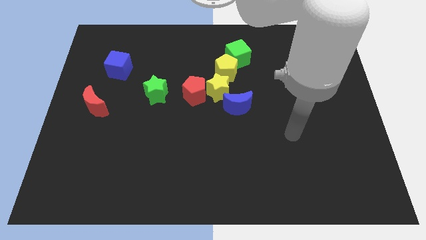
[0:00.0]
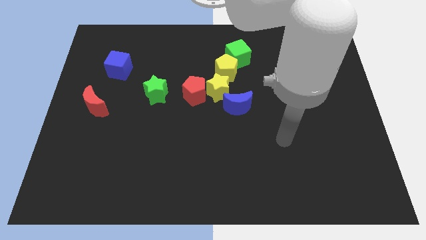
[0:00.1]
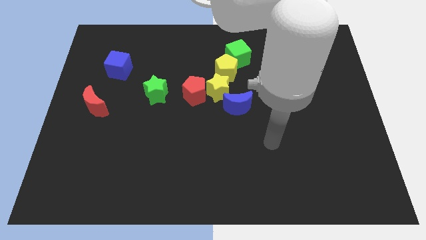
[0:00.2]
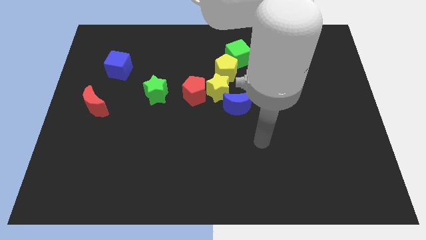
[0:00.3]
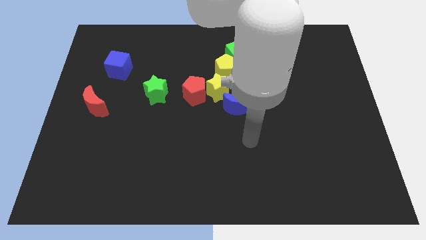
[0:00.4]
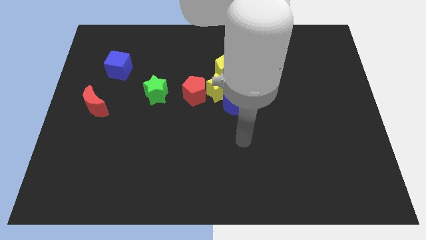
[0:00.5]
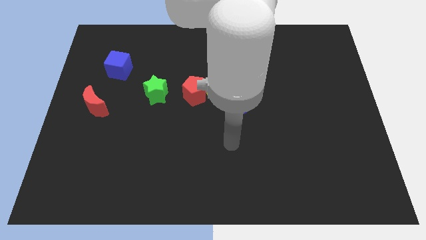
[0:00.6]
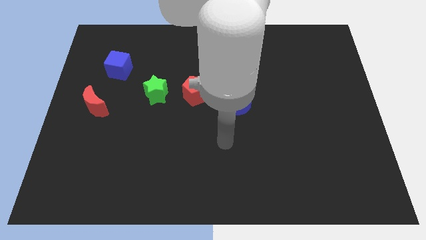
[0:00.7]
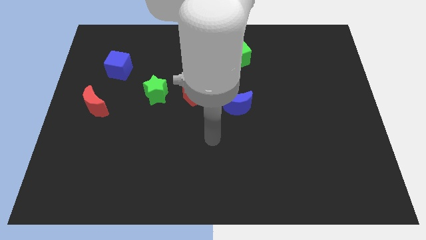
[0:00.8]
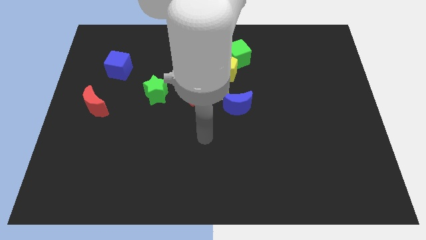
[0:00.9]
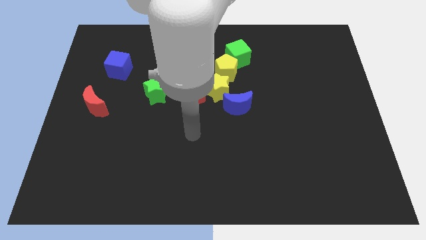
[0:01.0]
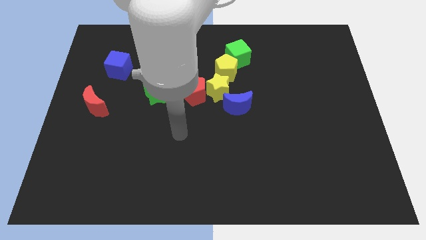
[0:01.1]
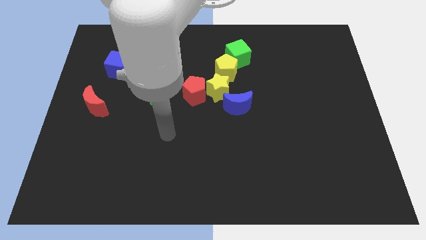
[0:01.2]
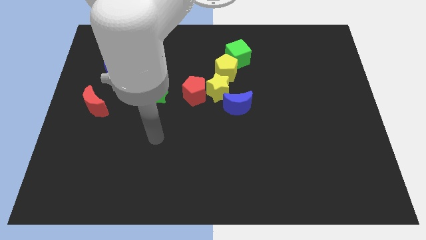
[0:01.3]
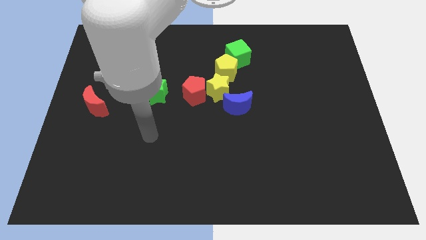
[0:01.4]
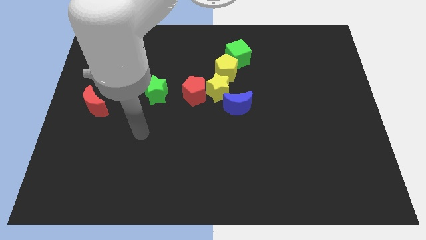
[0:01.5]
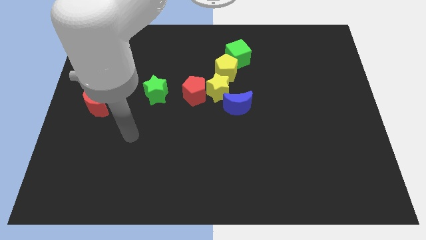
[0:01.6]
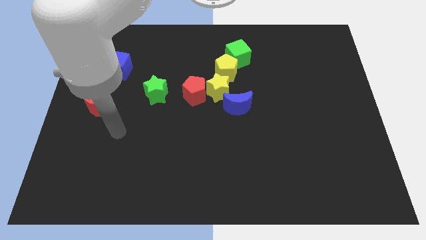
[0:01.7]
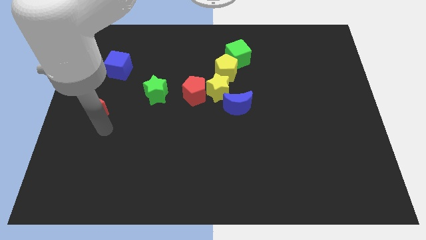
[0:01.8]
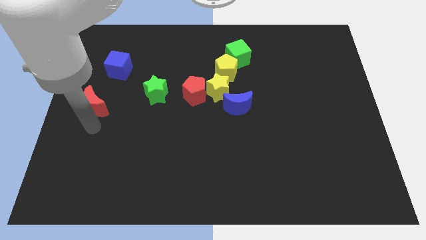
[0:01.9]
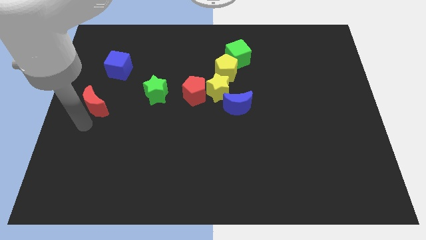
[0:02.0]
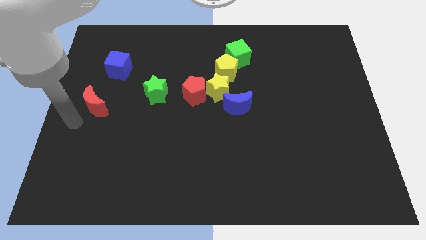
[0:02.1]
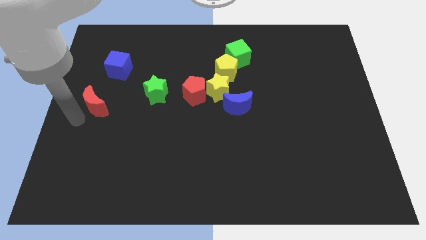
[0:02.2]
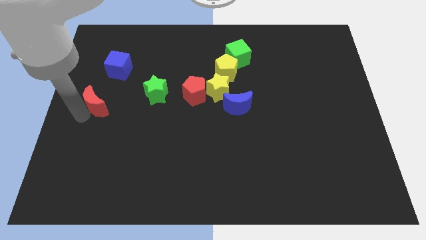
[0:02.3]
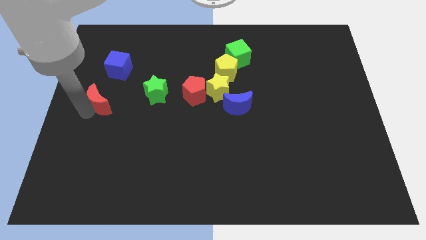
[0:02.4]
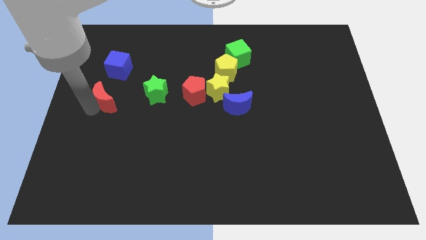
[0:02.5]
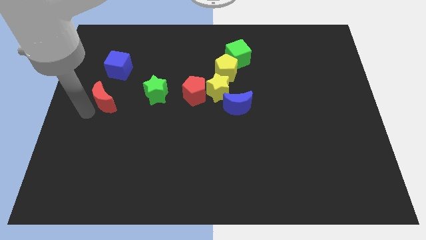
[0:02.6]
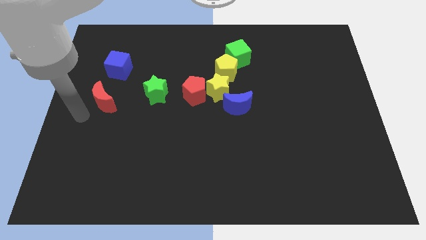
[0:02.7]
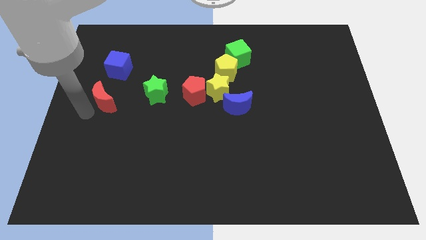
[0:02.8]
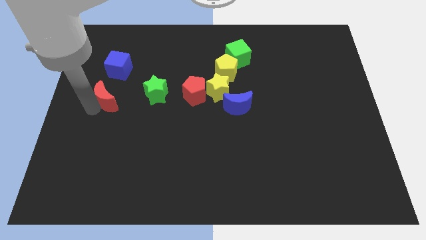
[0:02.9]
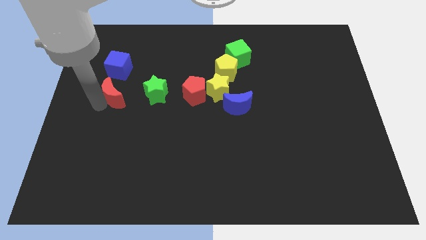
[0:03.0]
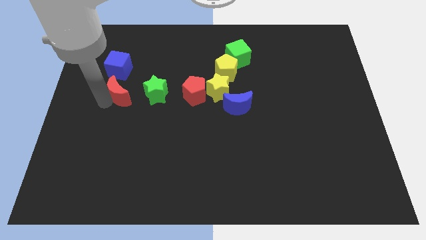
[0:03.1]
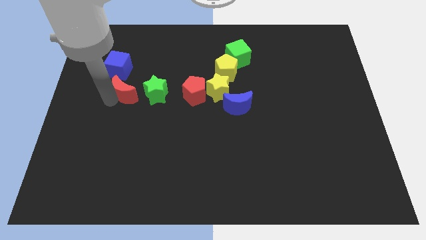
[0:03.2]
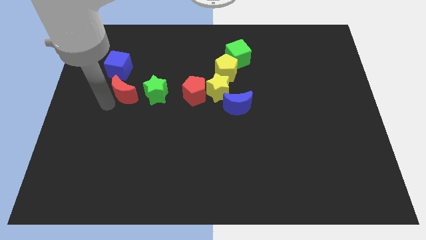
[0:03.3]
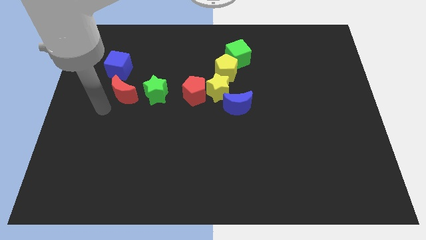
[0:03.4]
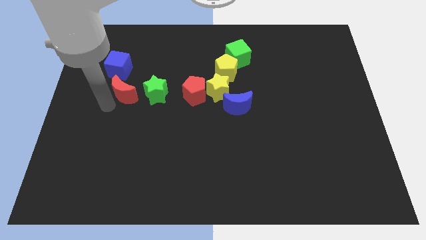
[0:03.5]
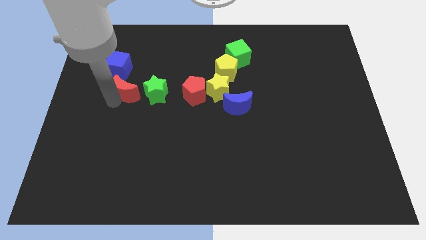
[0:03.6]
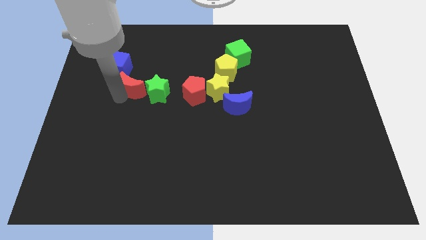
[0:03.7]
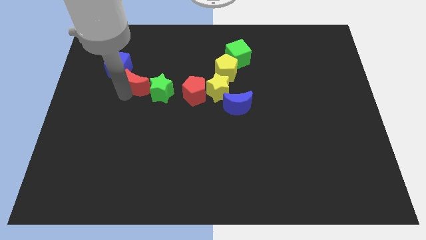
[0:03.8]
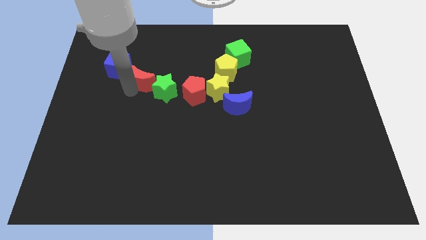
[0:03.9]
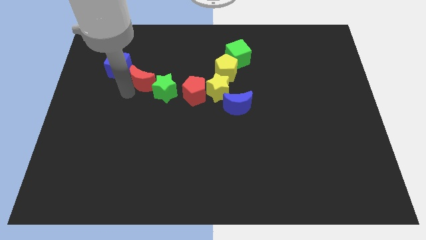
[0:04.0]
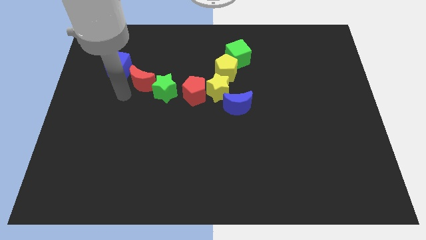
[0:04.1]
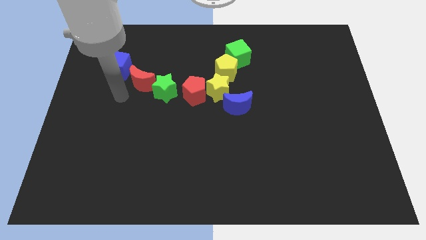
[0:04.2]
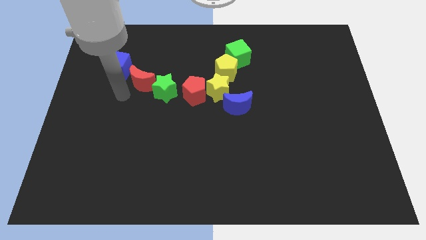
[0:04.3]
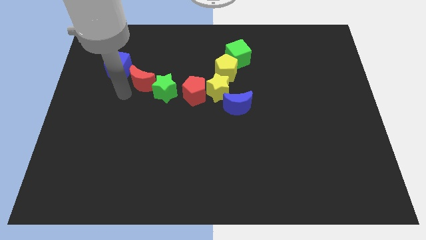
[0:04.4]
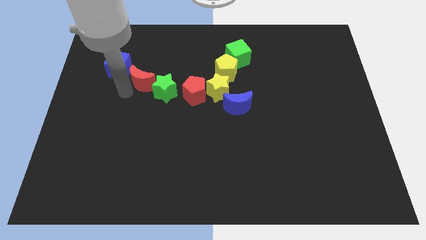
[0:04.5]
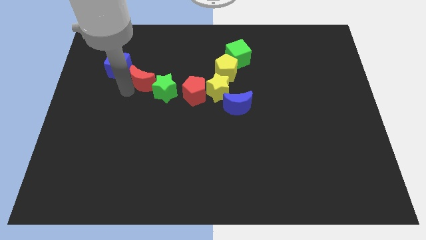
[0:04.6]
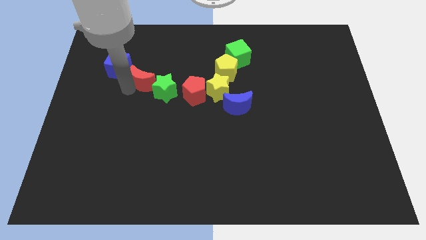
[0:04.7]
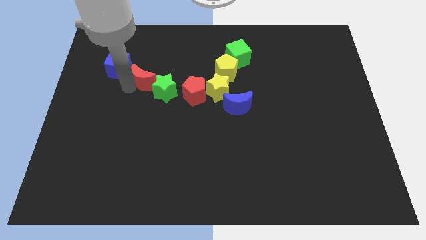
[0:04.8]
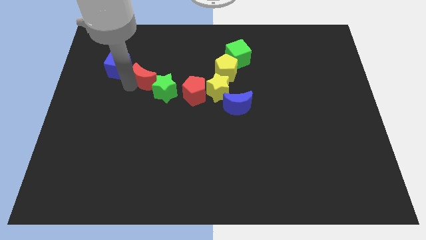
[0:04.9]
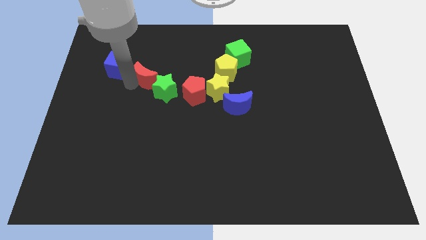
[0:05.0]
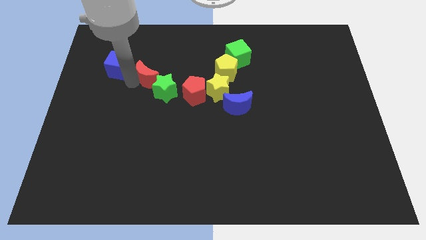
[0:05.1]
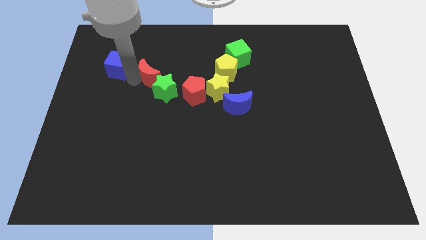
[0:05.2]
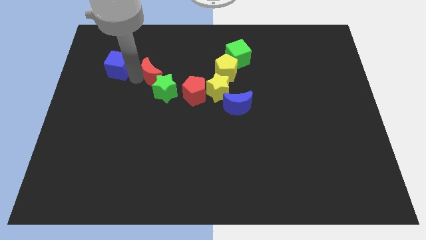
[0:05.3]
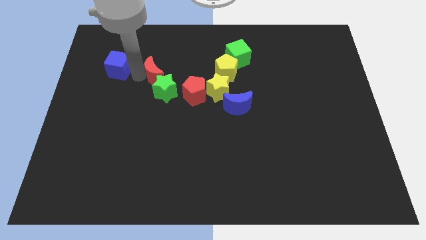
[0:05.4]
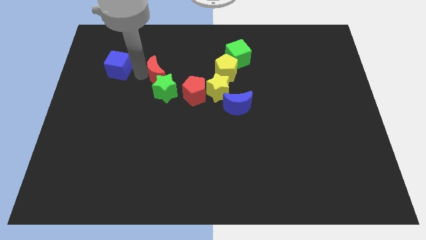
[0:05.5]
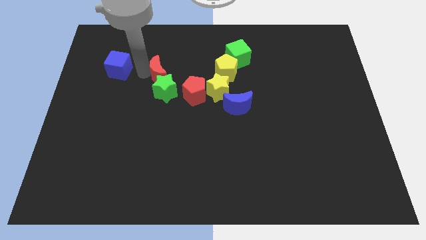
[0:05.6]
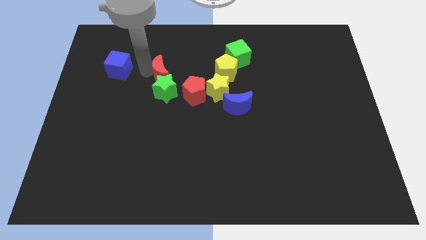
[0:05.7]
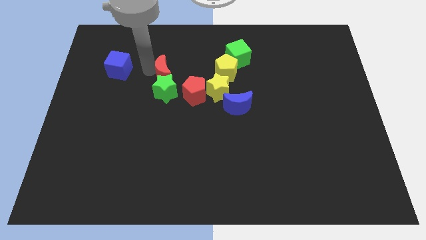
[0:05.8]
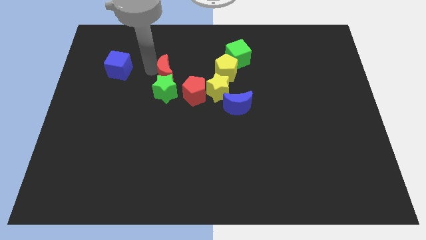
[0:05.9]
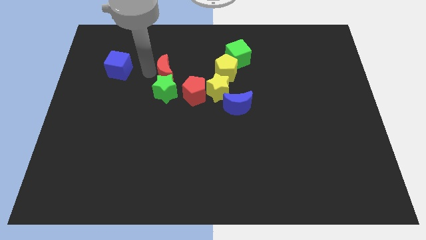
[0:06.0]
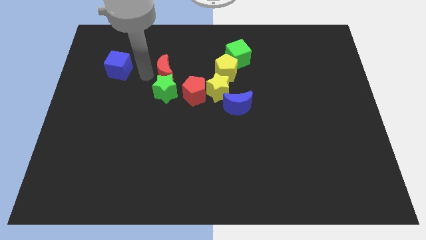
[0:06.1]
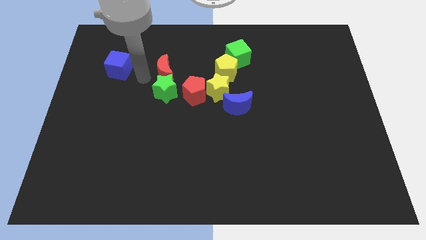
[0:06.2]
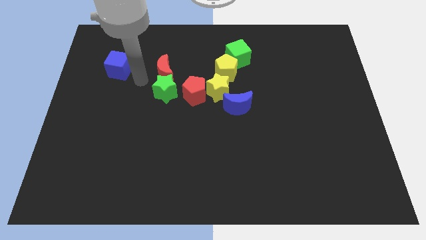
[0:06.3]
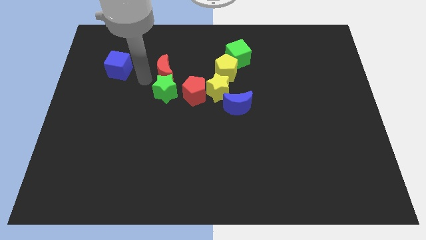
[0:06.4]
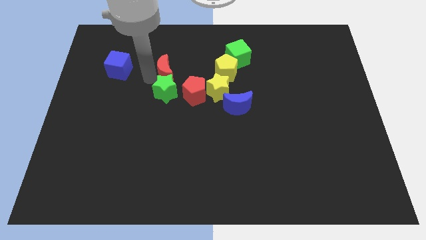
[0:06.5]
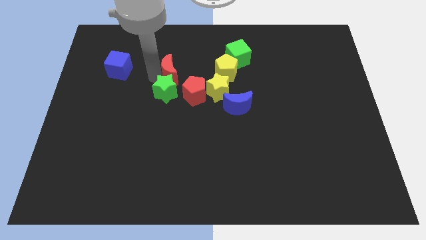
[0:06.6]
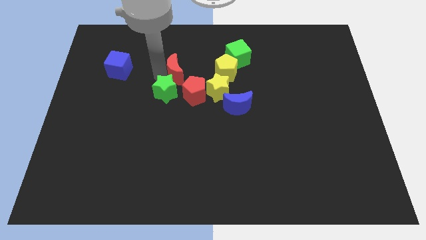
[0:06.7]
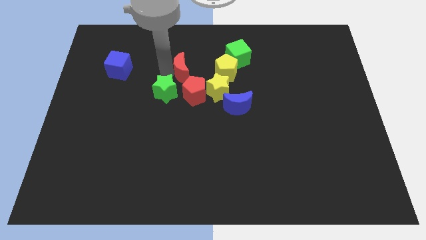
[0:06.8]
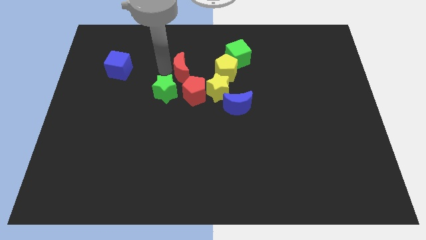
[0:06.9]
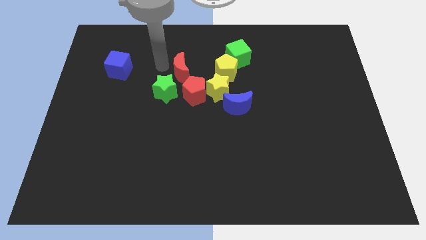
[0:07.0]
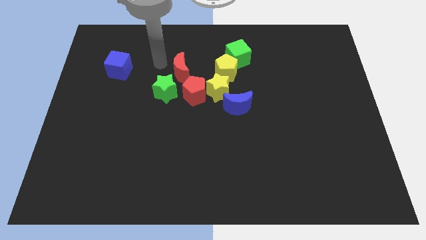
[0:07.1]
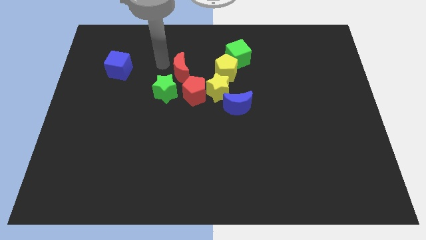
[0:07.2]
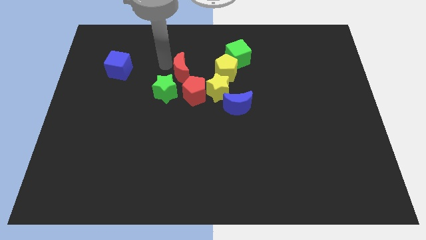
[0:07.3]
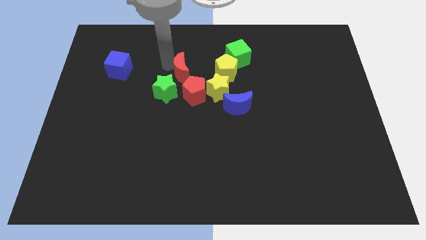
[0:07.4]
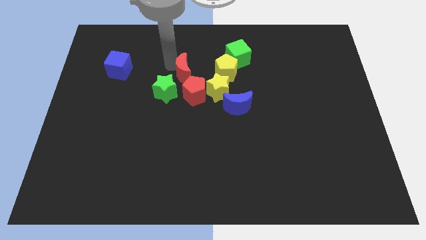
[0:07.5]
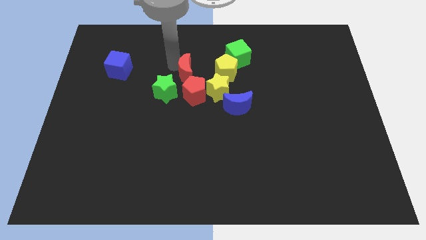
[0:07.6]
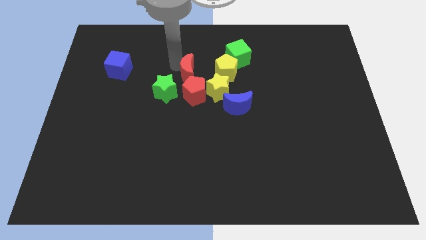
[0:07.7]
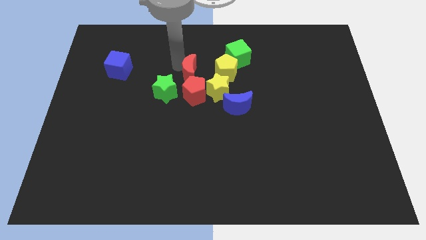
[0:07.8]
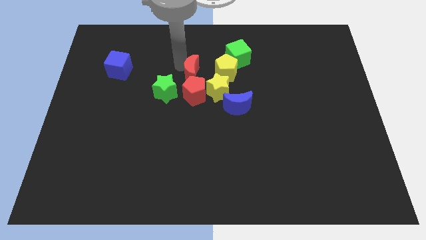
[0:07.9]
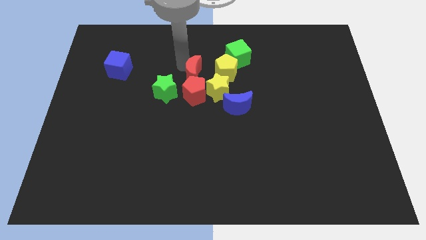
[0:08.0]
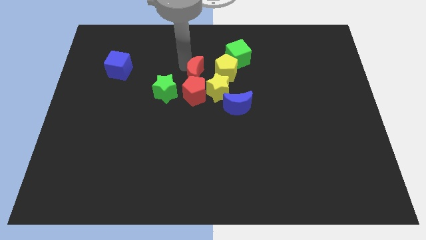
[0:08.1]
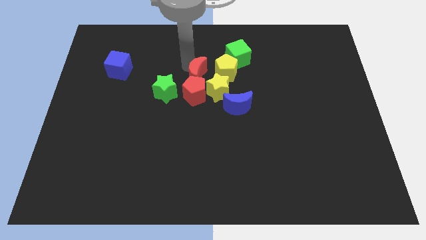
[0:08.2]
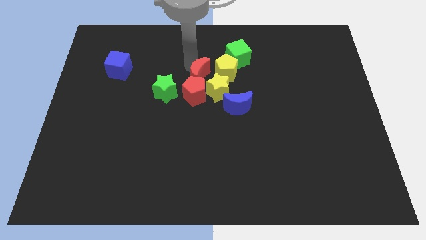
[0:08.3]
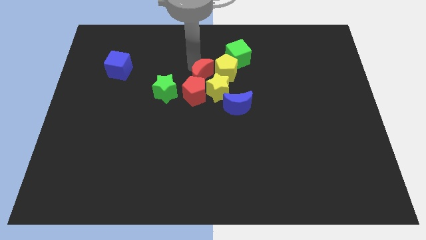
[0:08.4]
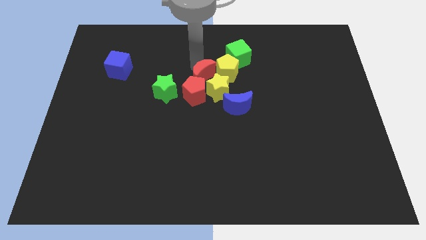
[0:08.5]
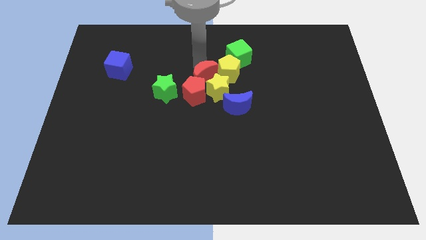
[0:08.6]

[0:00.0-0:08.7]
move the red moon diagonally up and to the left of the blue moon
